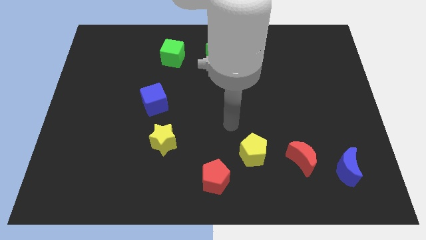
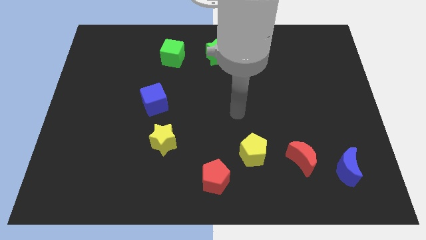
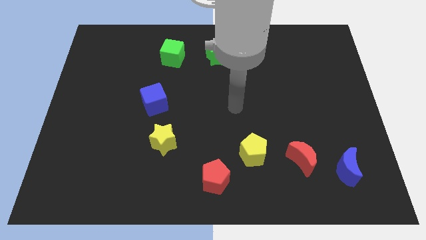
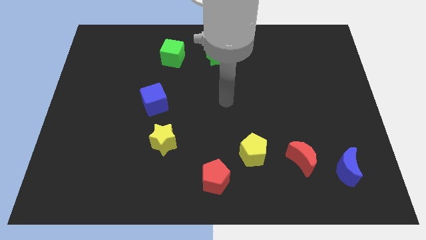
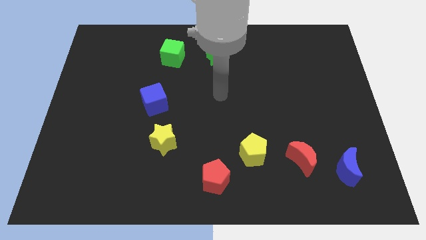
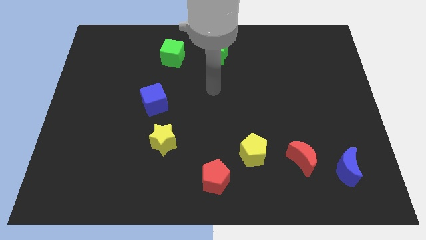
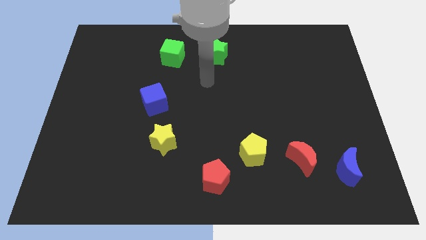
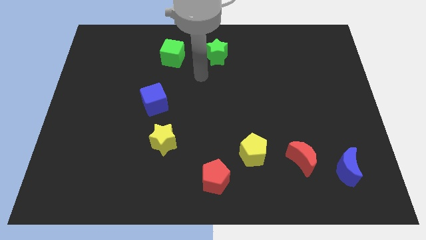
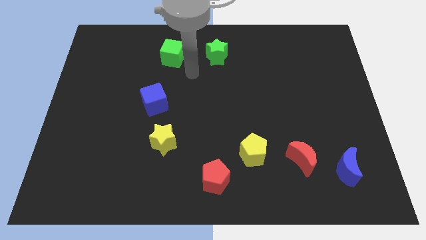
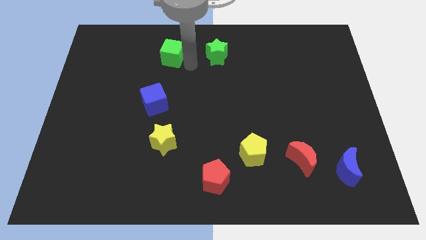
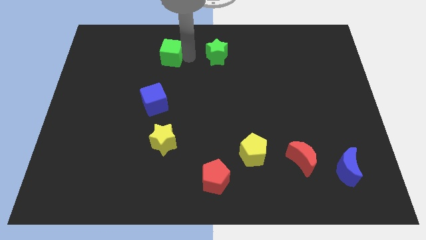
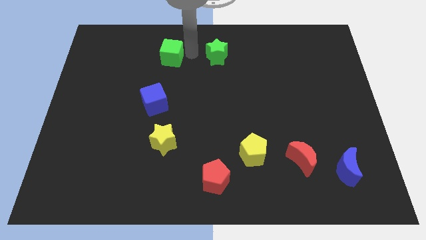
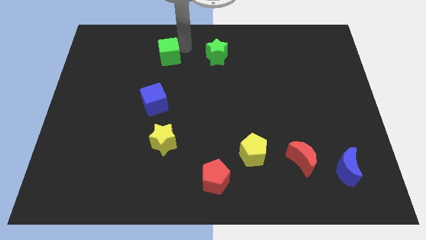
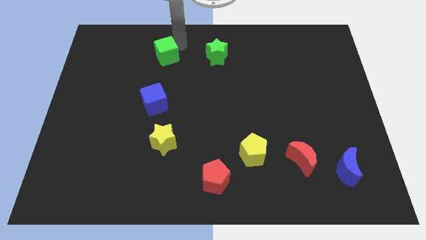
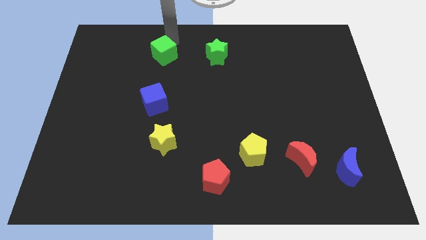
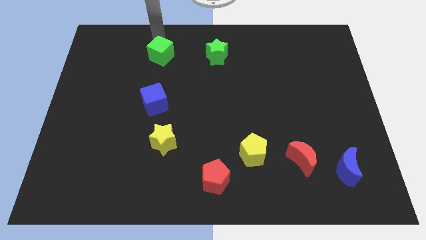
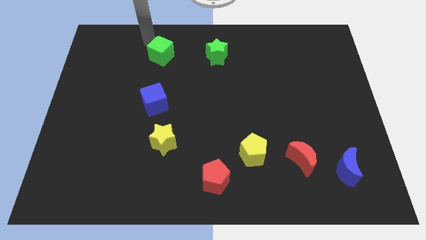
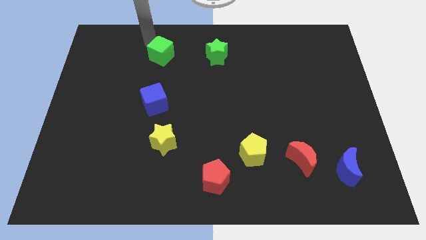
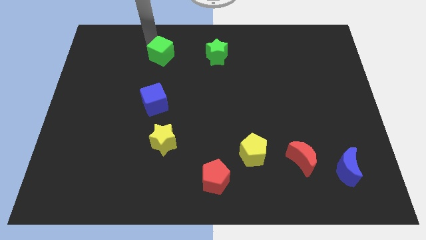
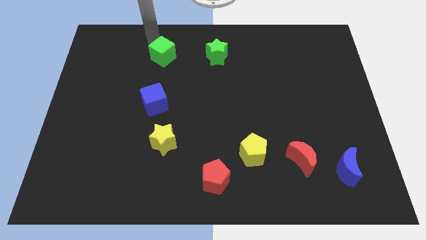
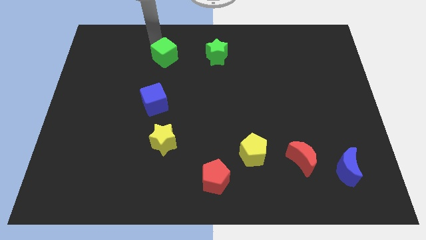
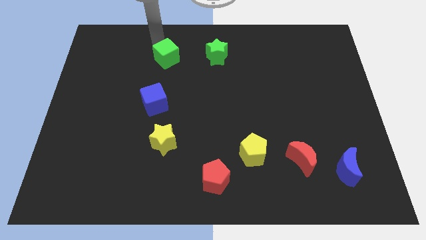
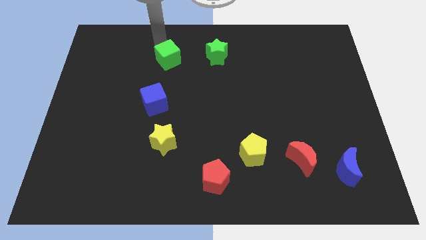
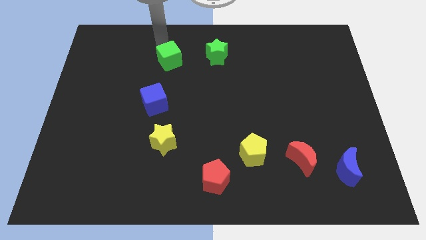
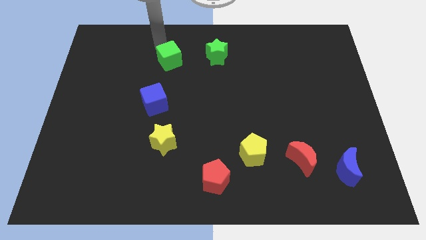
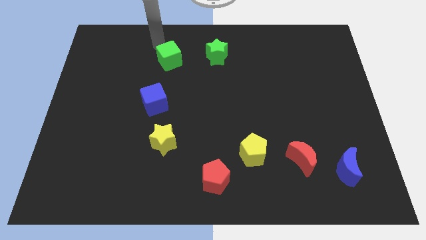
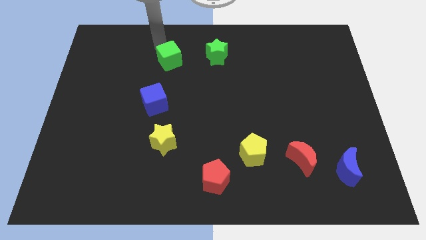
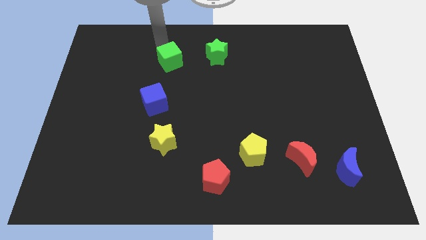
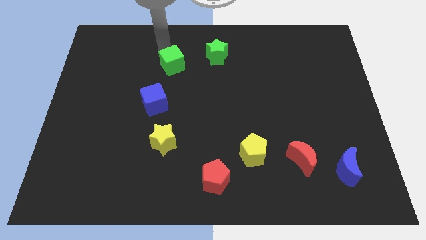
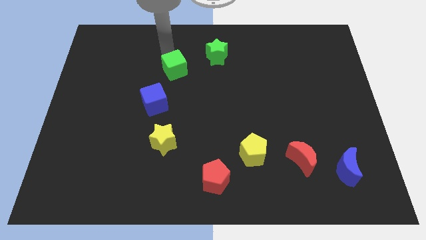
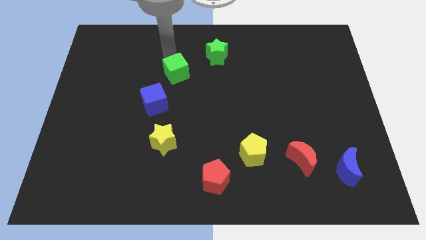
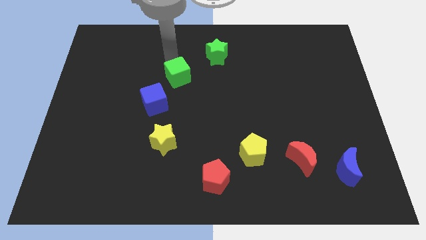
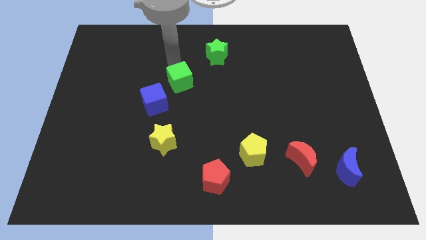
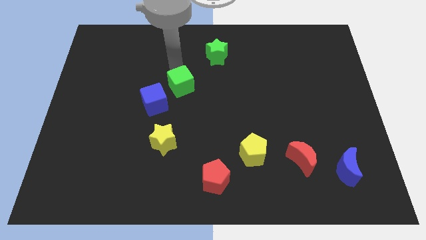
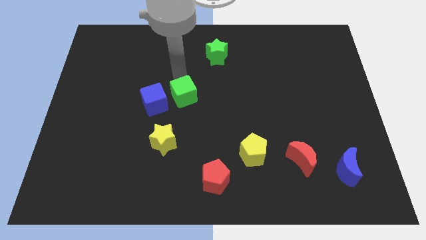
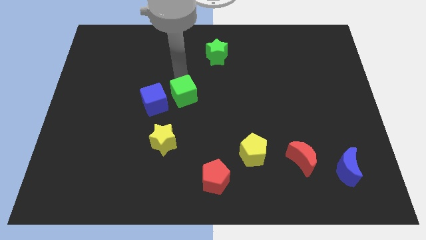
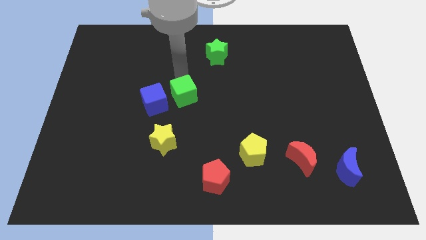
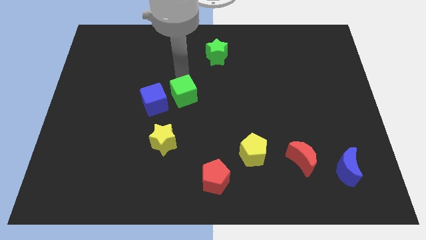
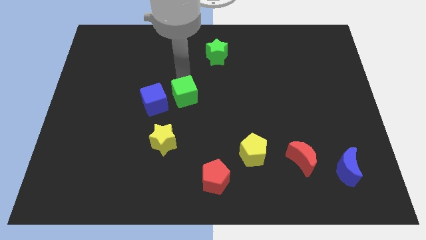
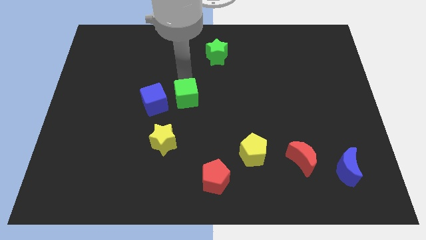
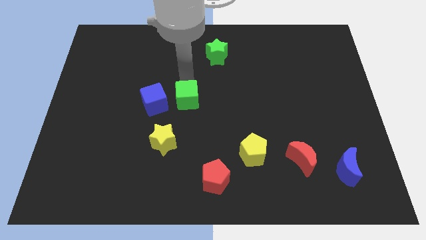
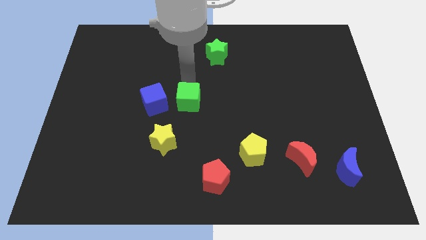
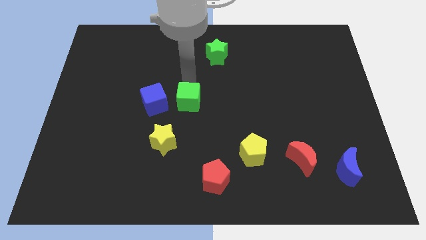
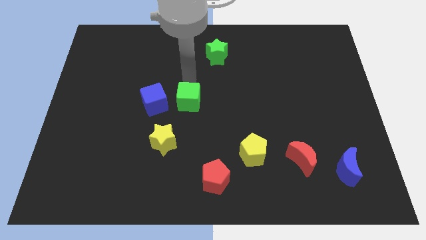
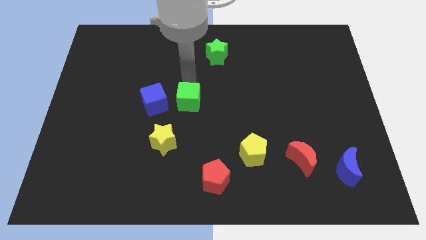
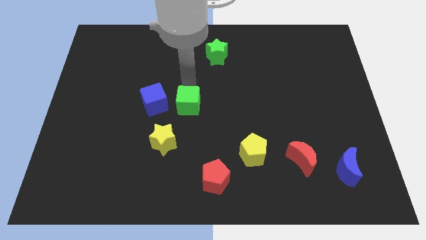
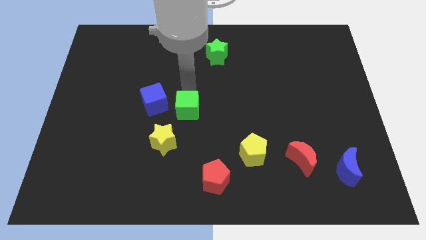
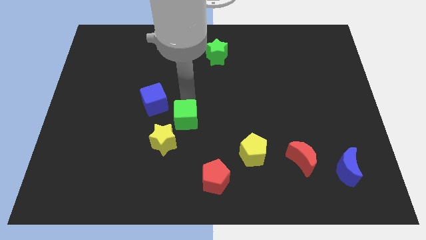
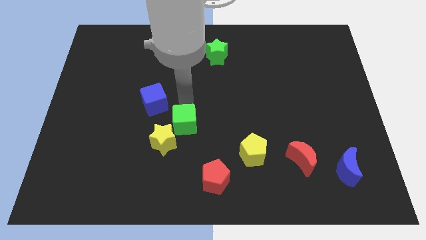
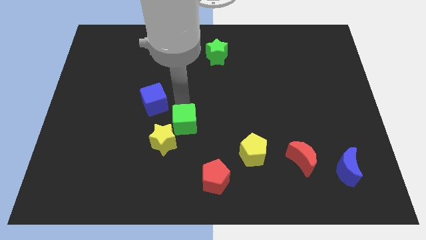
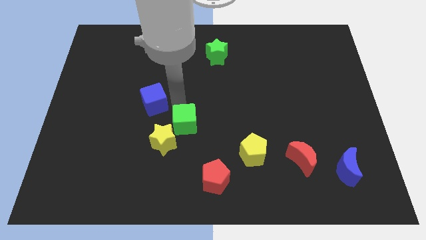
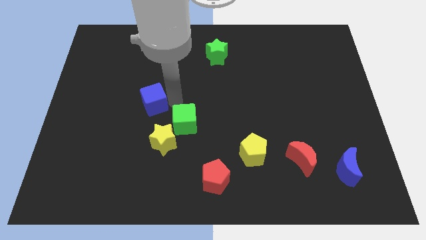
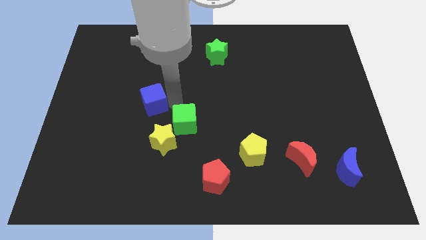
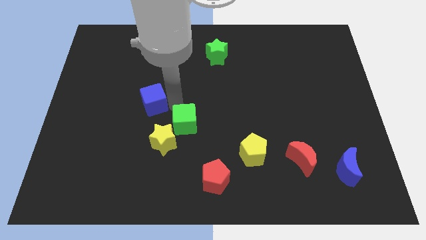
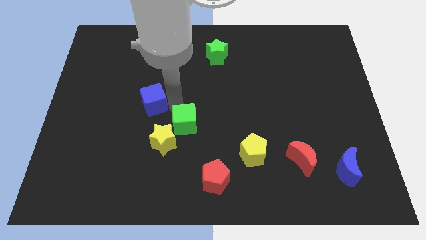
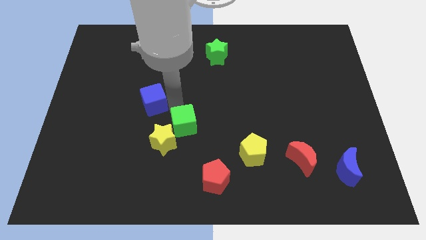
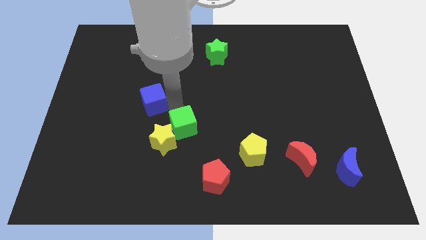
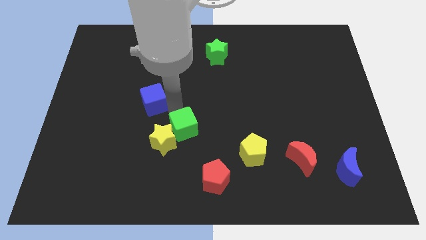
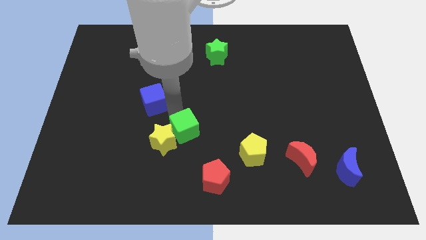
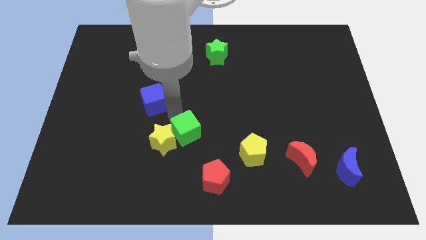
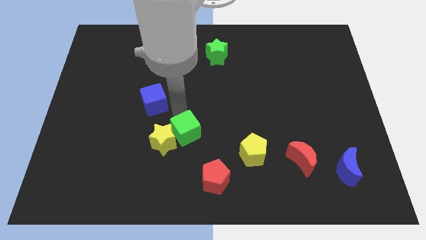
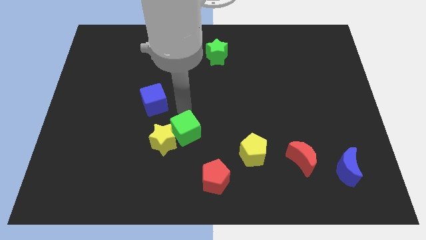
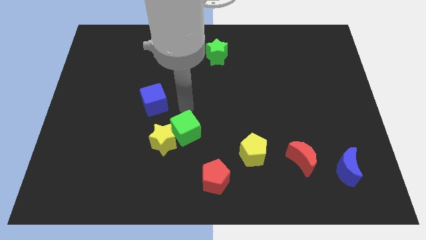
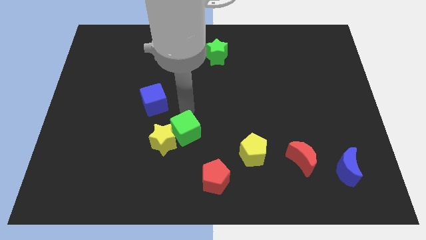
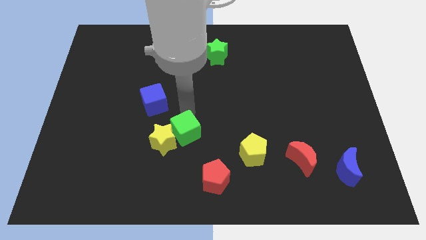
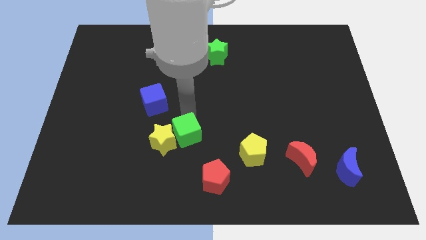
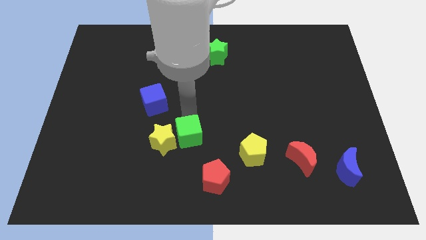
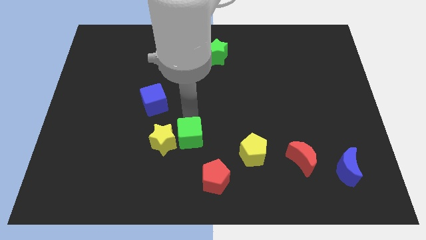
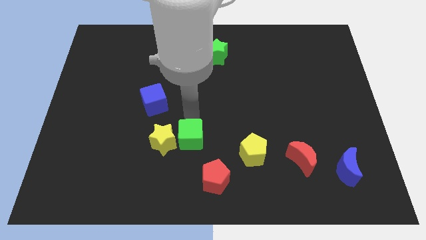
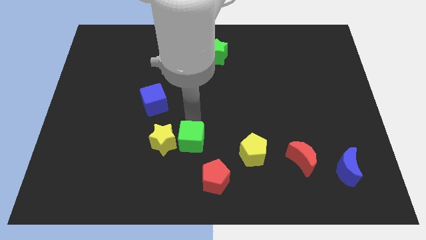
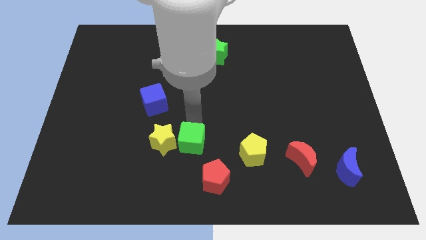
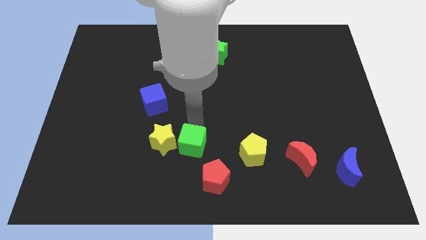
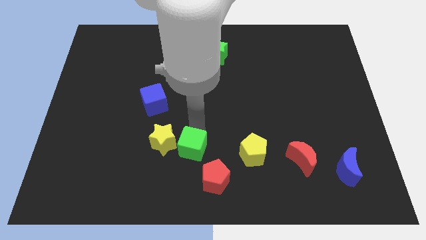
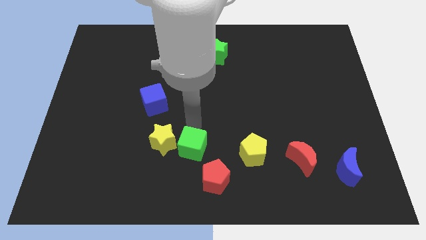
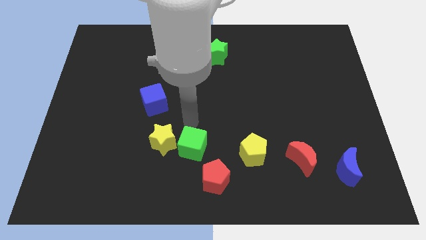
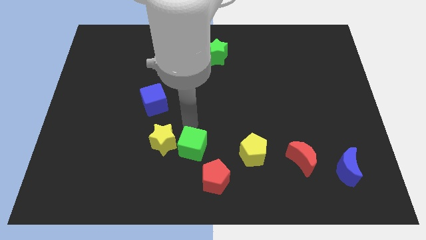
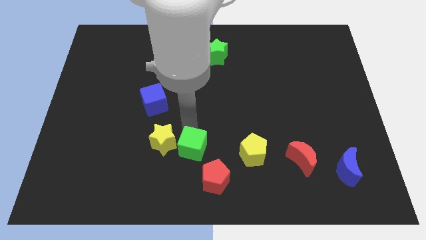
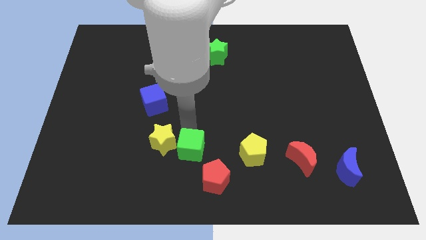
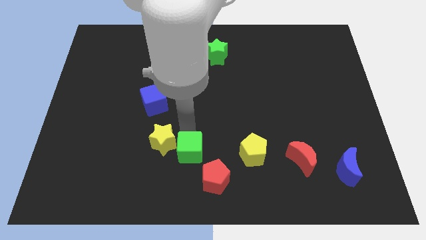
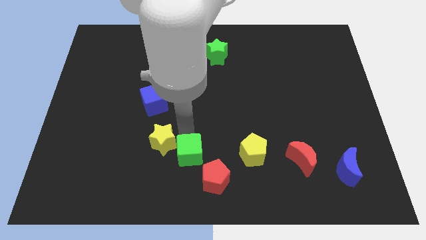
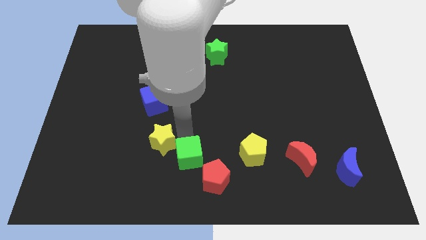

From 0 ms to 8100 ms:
move the green cube to the bottom
